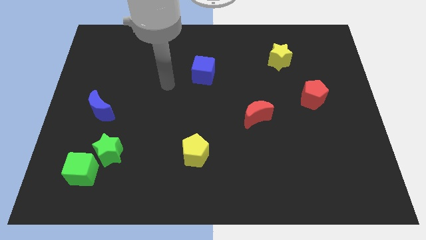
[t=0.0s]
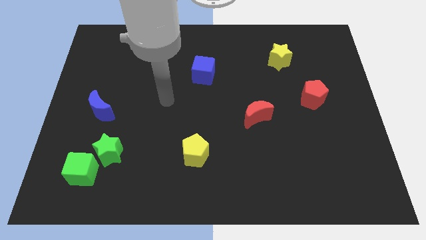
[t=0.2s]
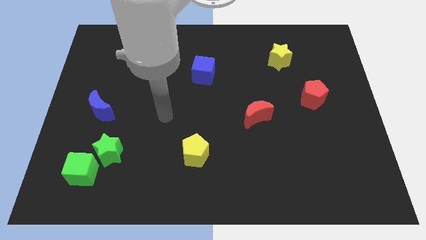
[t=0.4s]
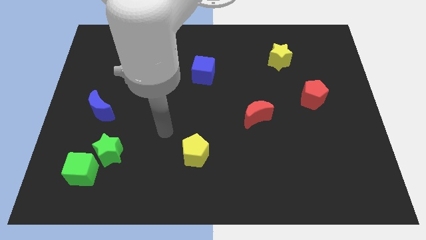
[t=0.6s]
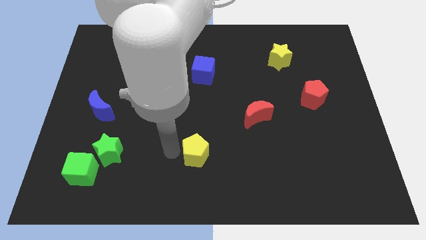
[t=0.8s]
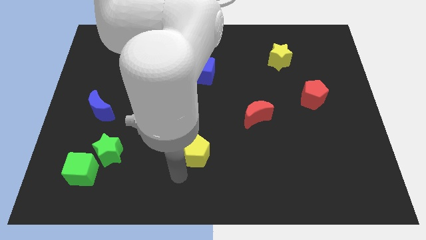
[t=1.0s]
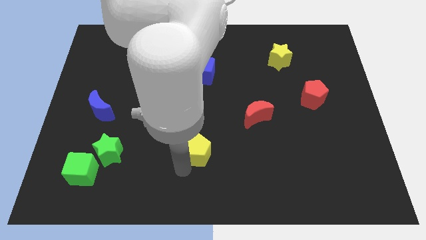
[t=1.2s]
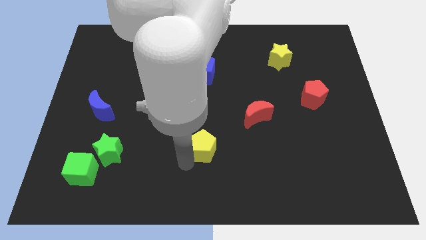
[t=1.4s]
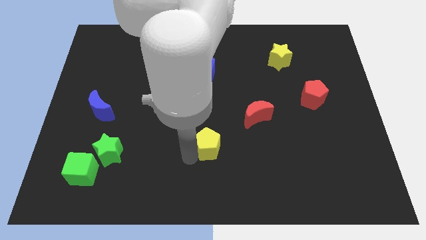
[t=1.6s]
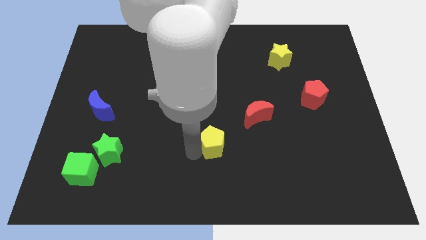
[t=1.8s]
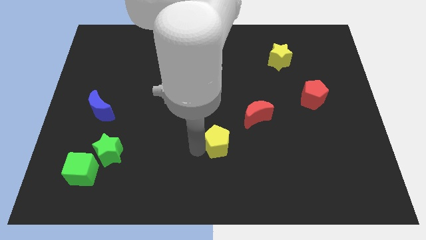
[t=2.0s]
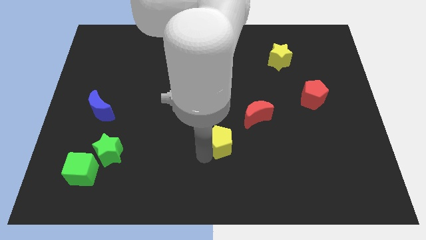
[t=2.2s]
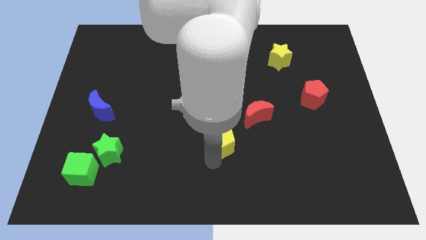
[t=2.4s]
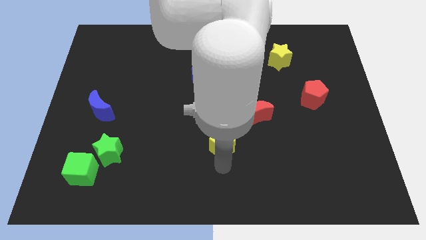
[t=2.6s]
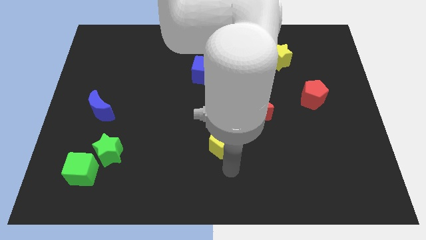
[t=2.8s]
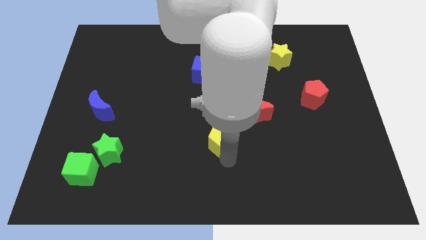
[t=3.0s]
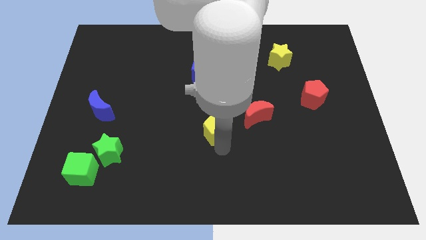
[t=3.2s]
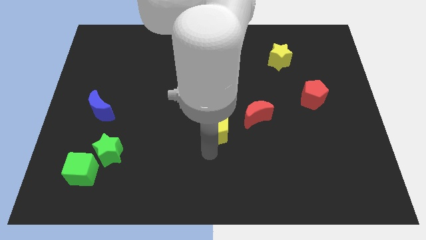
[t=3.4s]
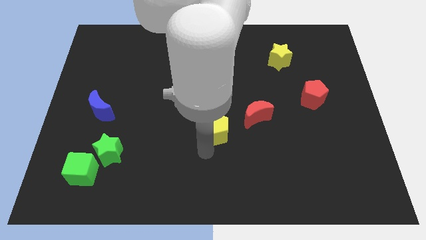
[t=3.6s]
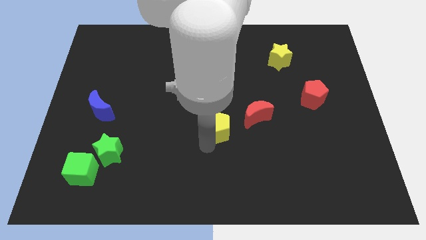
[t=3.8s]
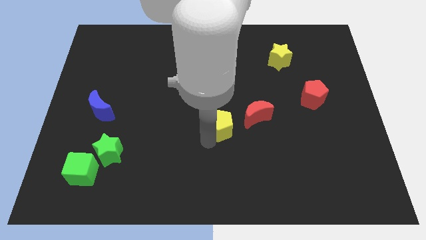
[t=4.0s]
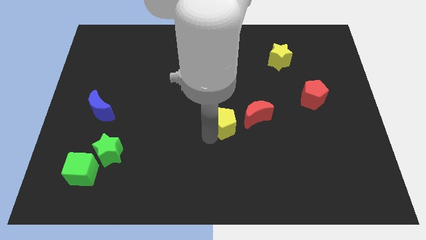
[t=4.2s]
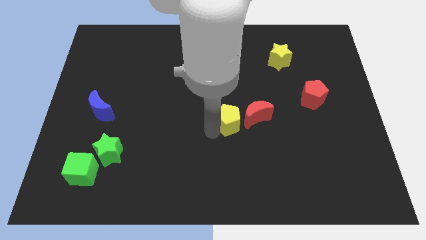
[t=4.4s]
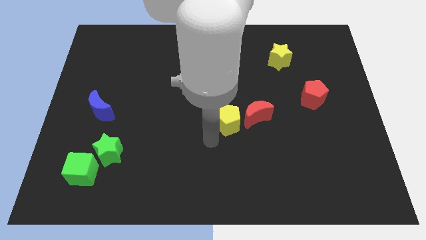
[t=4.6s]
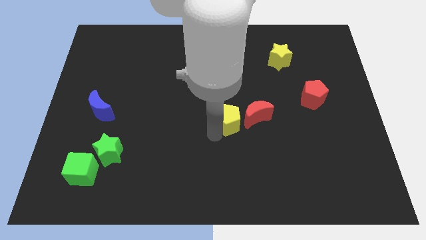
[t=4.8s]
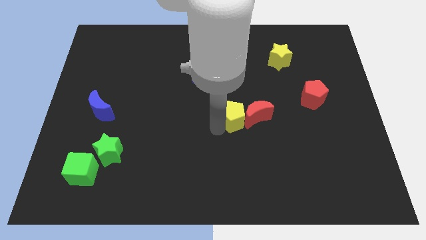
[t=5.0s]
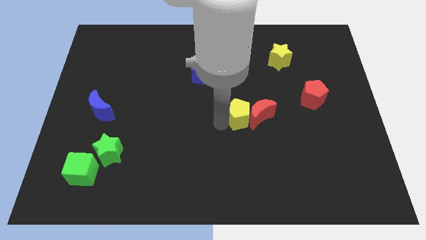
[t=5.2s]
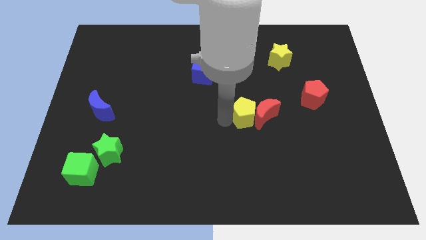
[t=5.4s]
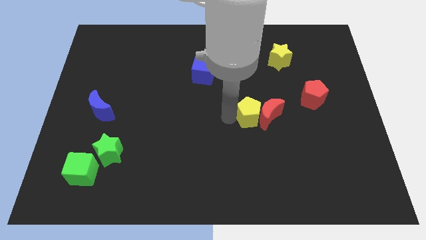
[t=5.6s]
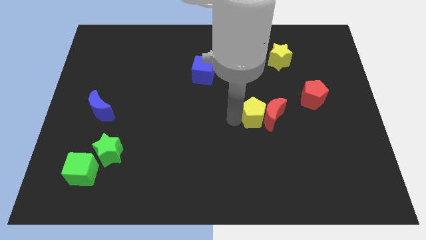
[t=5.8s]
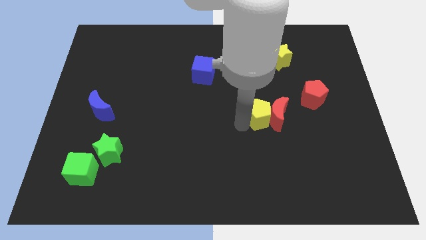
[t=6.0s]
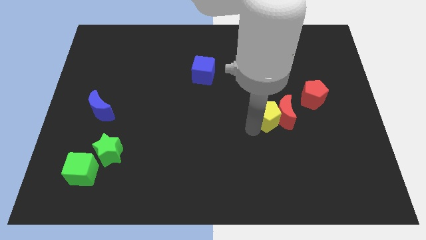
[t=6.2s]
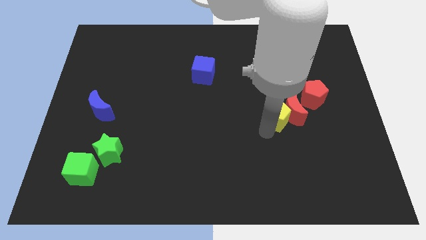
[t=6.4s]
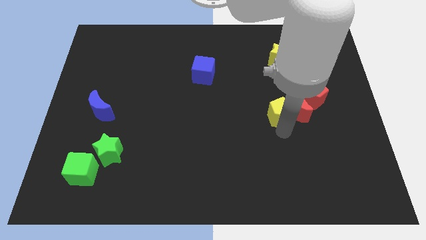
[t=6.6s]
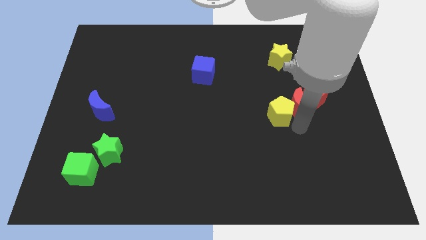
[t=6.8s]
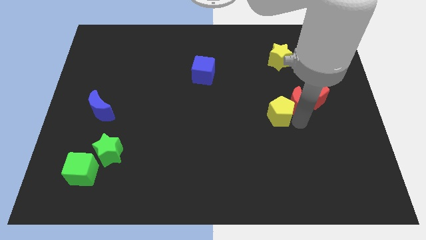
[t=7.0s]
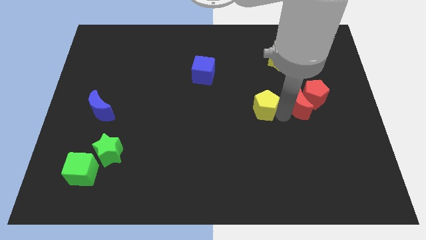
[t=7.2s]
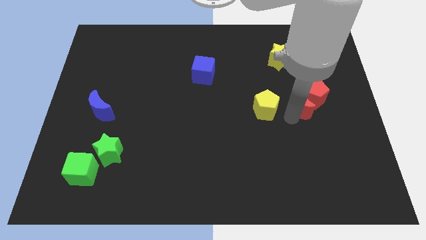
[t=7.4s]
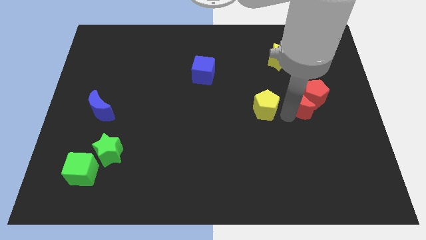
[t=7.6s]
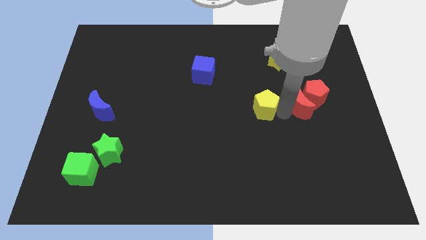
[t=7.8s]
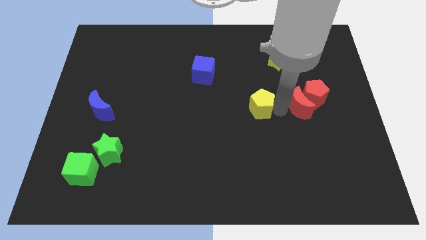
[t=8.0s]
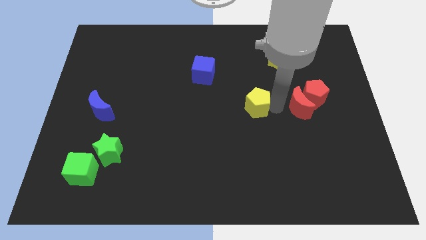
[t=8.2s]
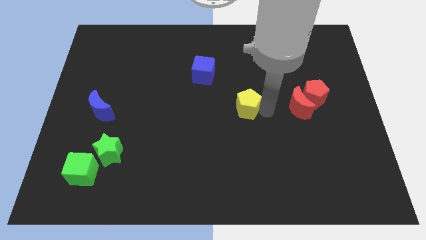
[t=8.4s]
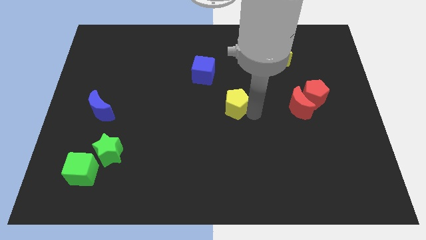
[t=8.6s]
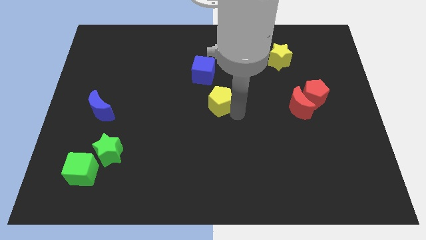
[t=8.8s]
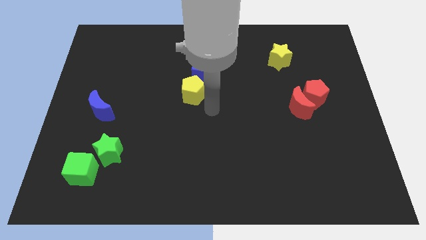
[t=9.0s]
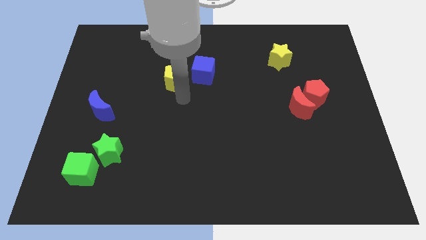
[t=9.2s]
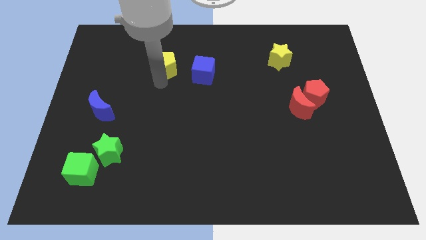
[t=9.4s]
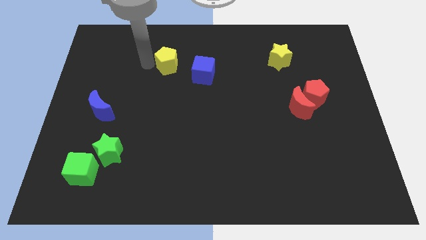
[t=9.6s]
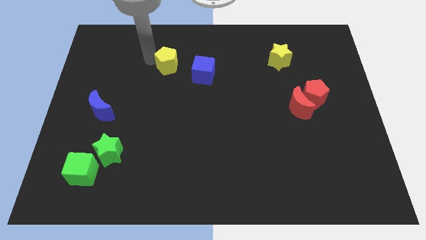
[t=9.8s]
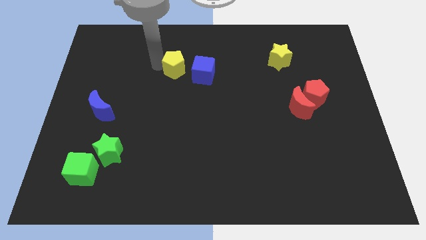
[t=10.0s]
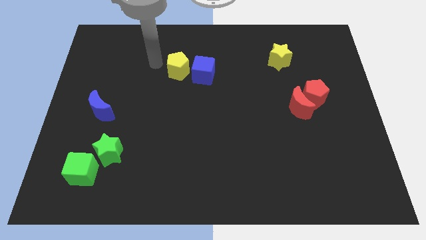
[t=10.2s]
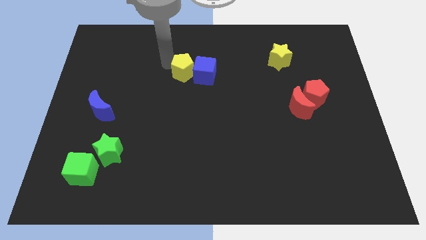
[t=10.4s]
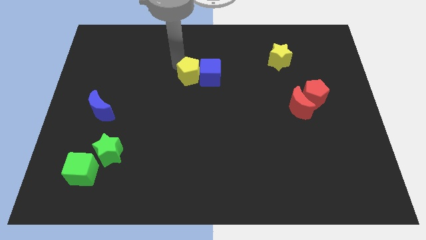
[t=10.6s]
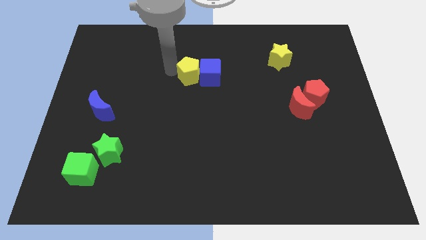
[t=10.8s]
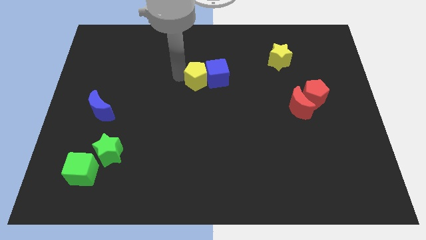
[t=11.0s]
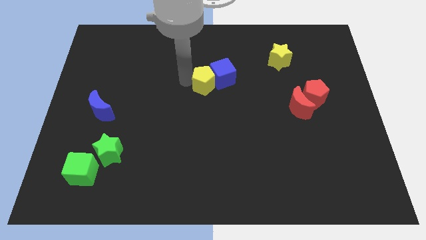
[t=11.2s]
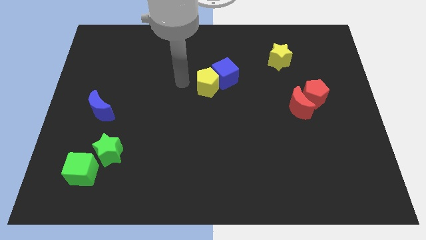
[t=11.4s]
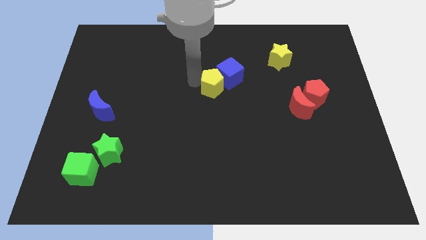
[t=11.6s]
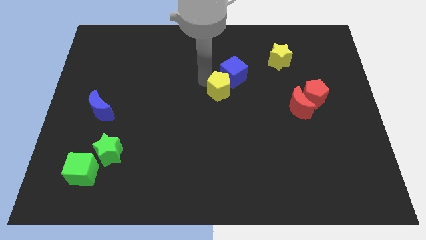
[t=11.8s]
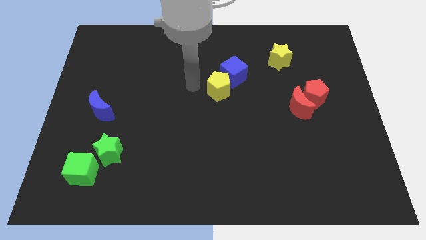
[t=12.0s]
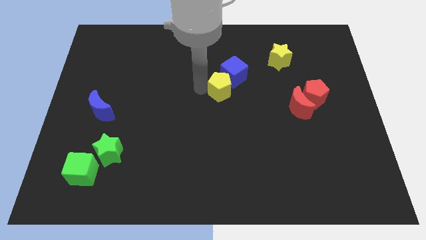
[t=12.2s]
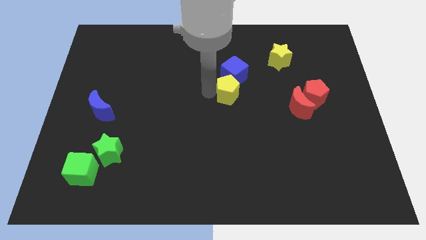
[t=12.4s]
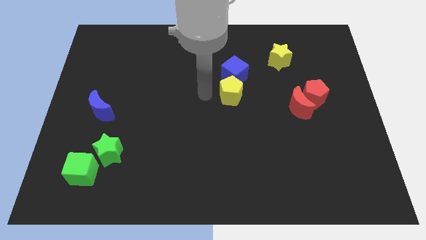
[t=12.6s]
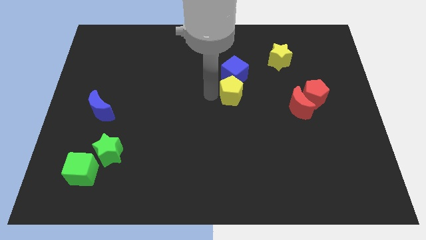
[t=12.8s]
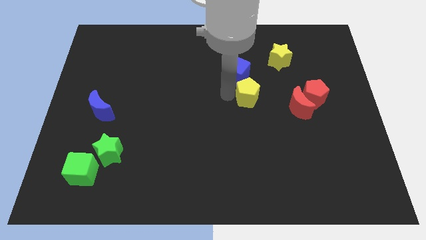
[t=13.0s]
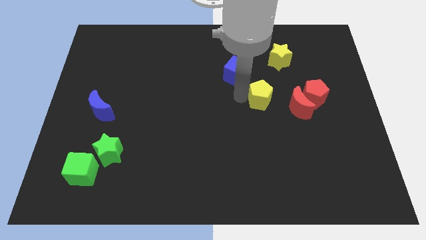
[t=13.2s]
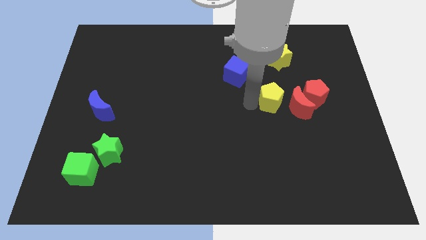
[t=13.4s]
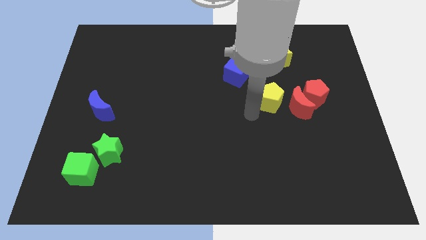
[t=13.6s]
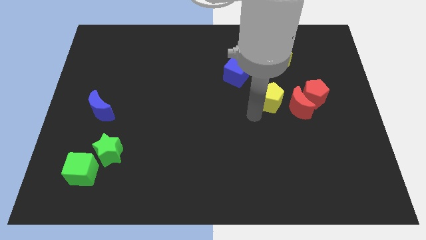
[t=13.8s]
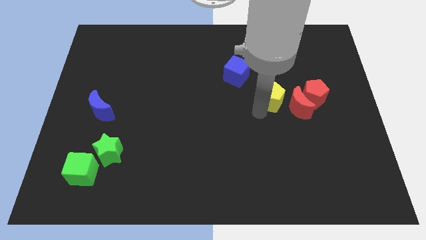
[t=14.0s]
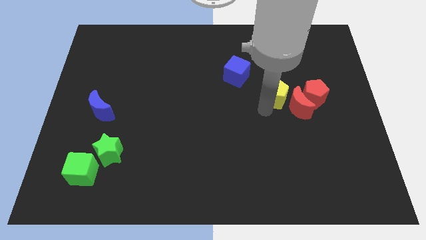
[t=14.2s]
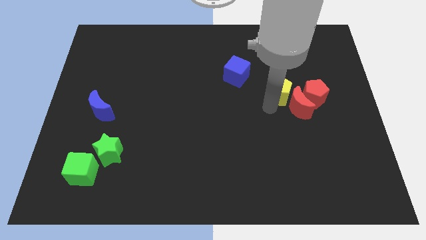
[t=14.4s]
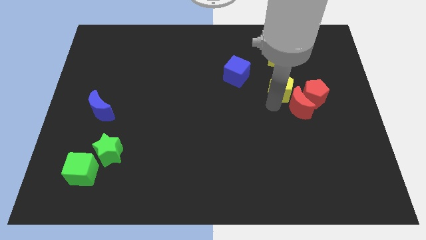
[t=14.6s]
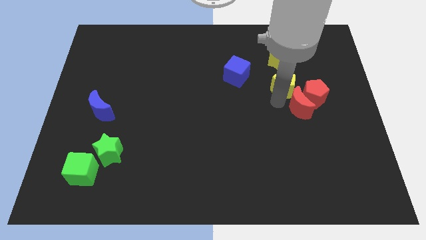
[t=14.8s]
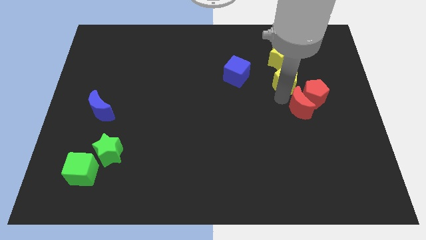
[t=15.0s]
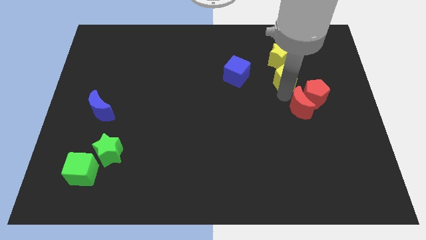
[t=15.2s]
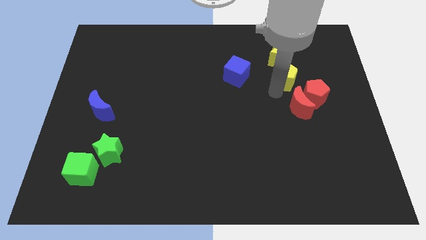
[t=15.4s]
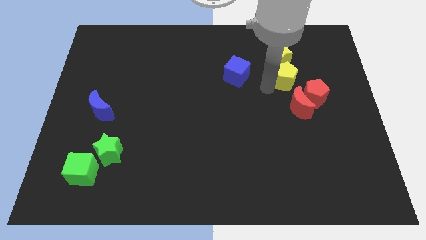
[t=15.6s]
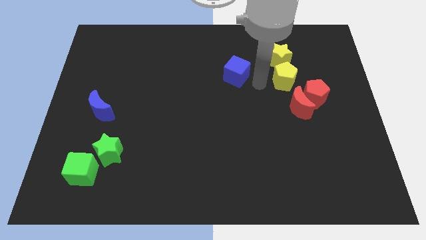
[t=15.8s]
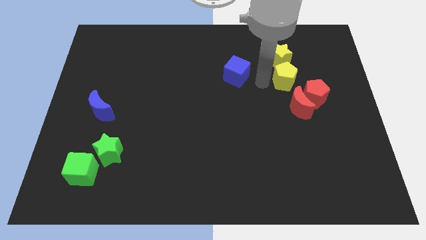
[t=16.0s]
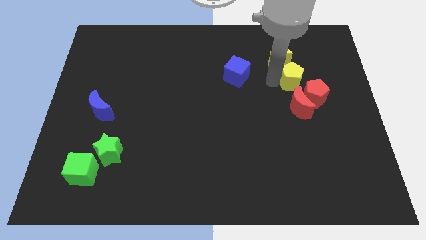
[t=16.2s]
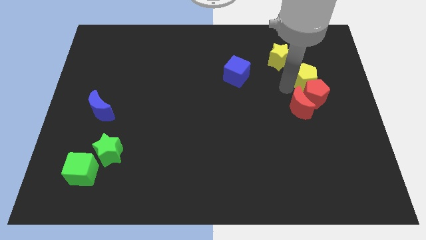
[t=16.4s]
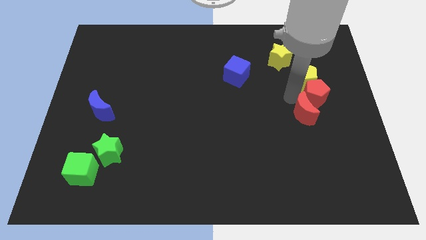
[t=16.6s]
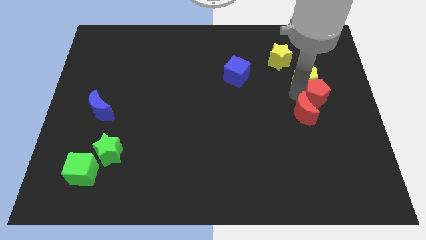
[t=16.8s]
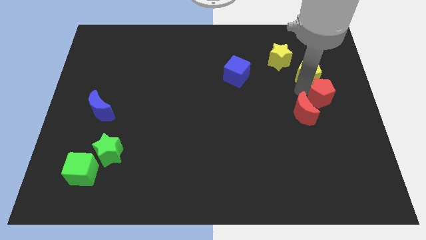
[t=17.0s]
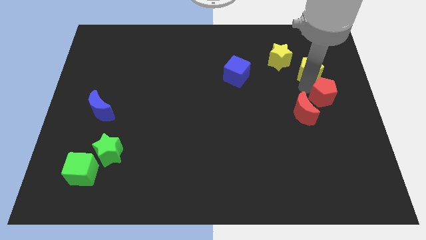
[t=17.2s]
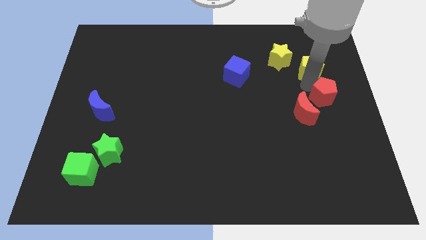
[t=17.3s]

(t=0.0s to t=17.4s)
slide the yellow pentagon right of the yellow star
